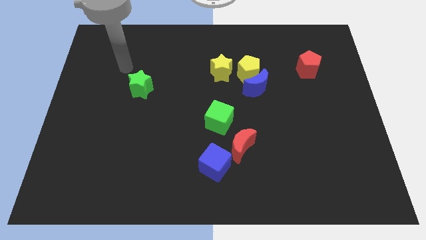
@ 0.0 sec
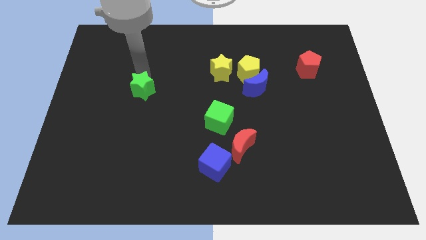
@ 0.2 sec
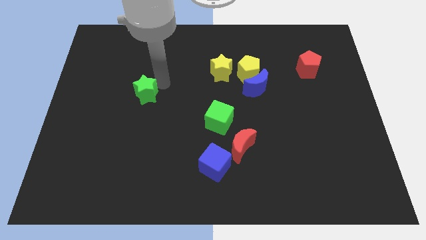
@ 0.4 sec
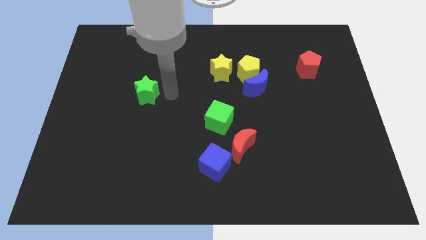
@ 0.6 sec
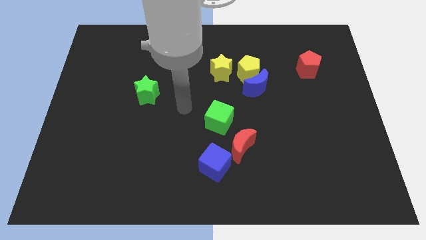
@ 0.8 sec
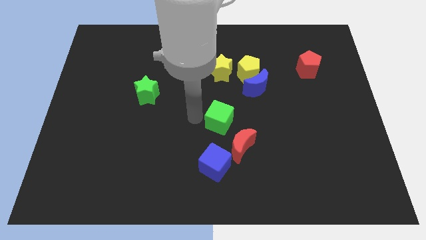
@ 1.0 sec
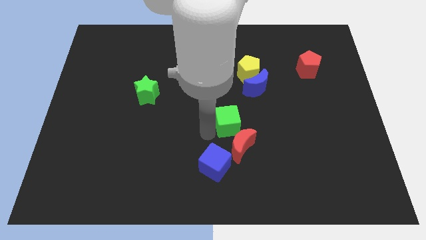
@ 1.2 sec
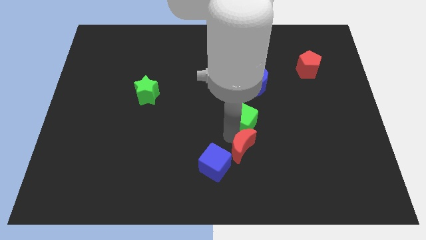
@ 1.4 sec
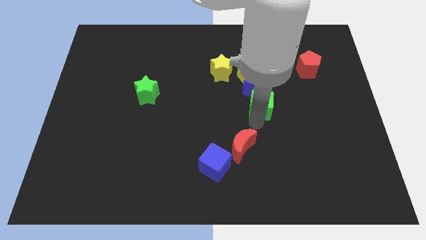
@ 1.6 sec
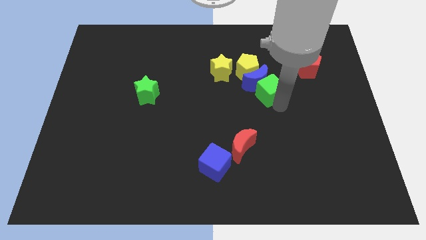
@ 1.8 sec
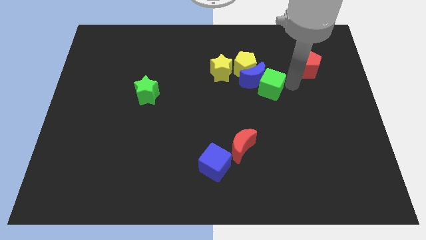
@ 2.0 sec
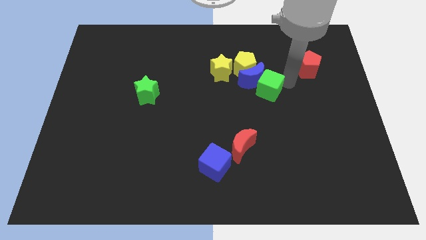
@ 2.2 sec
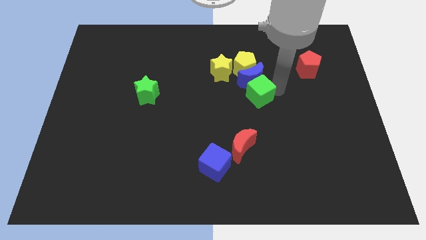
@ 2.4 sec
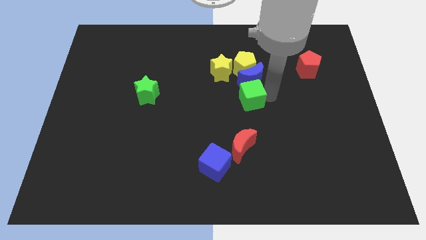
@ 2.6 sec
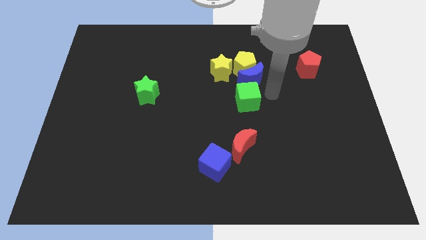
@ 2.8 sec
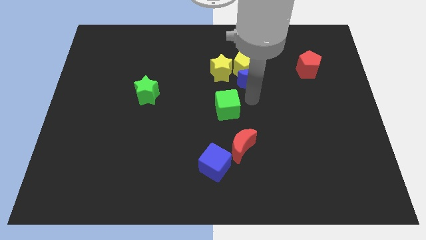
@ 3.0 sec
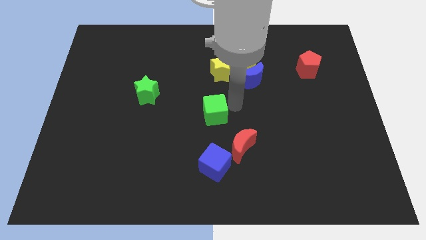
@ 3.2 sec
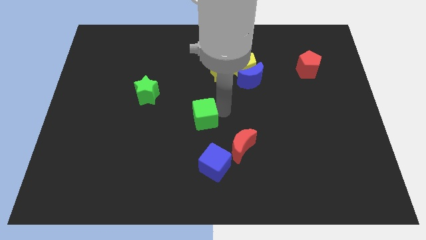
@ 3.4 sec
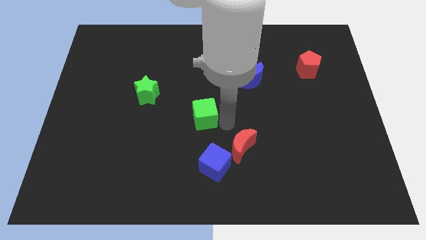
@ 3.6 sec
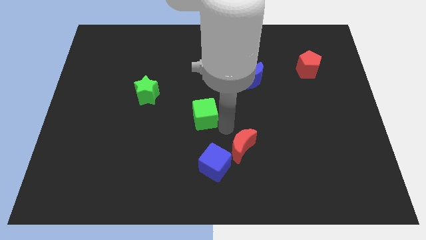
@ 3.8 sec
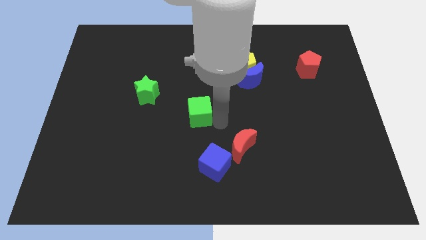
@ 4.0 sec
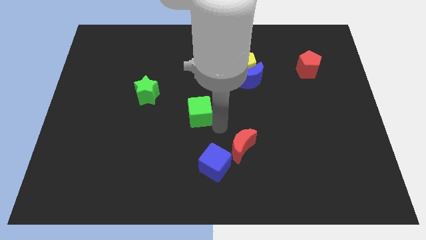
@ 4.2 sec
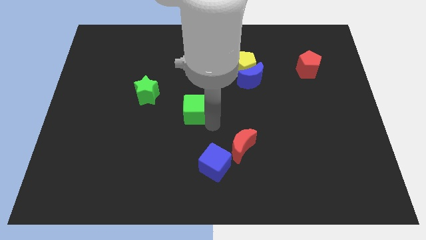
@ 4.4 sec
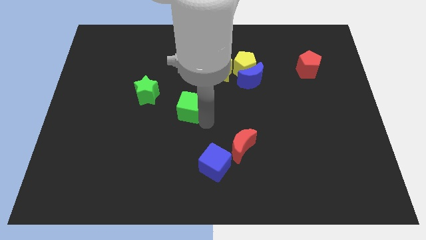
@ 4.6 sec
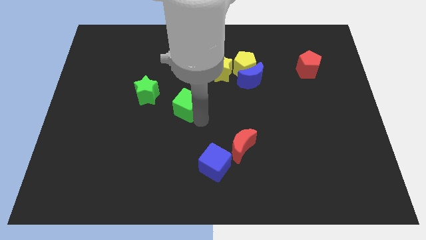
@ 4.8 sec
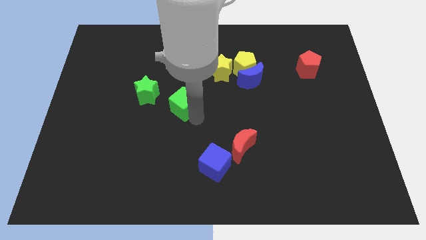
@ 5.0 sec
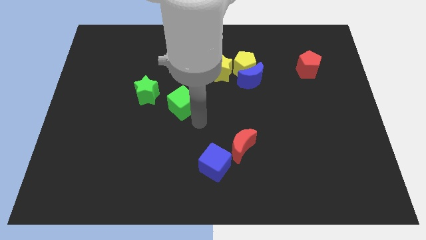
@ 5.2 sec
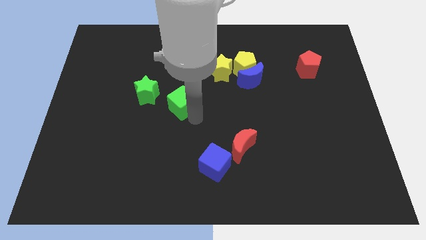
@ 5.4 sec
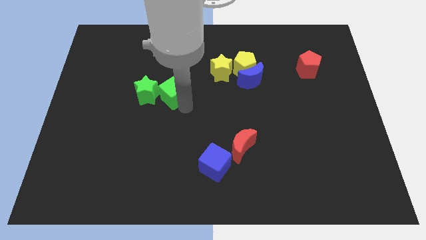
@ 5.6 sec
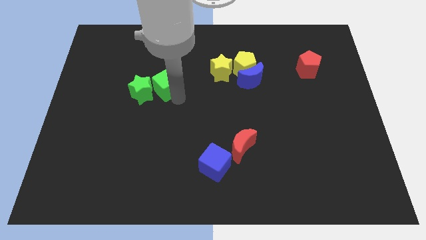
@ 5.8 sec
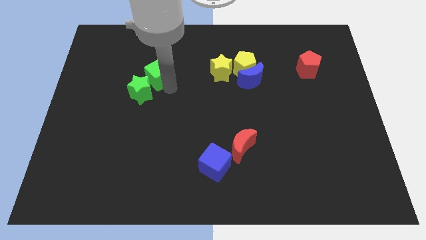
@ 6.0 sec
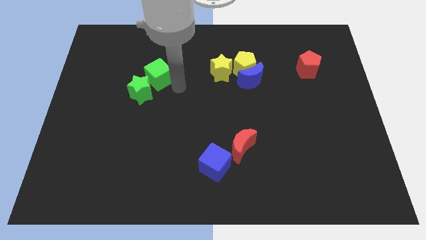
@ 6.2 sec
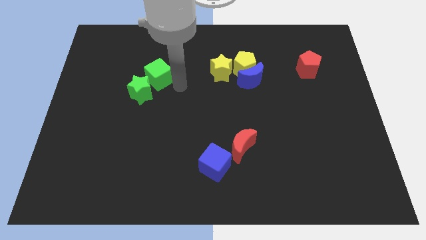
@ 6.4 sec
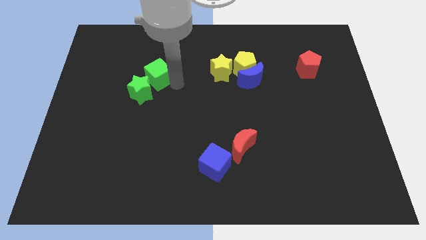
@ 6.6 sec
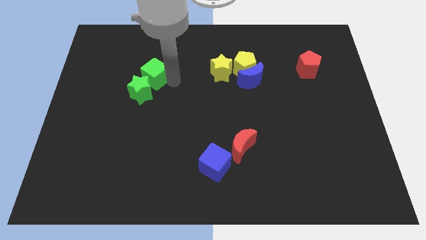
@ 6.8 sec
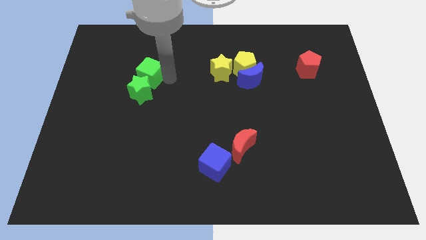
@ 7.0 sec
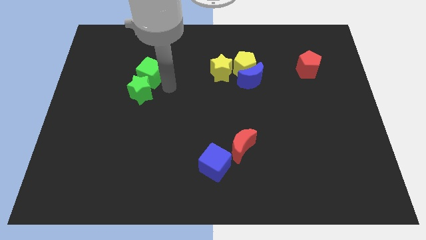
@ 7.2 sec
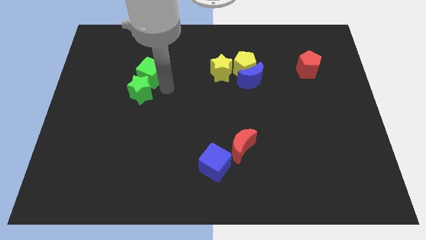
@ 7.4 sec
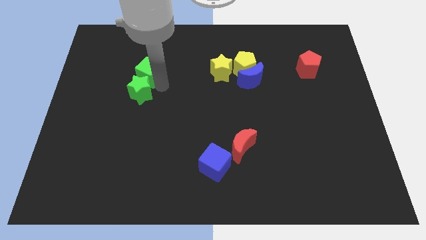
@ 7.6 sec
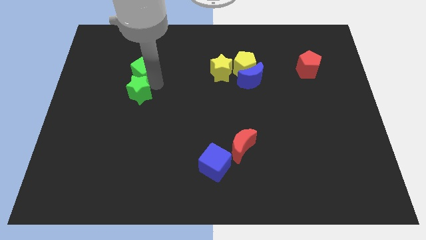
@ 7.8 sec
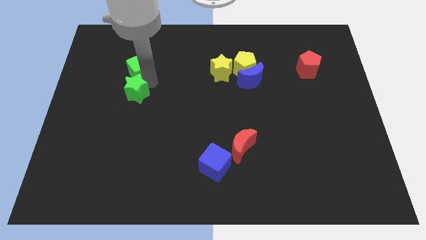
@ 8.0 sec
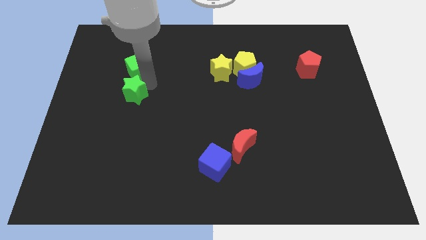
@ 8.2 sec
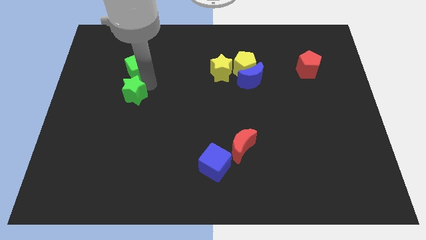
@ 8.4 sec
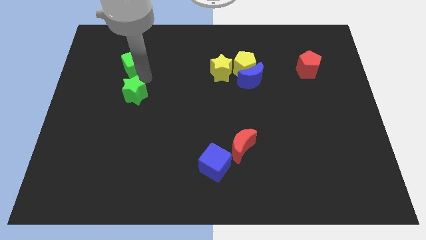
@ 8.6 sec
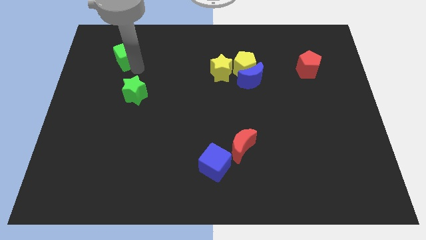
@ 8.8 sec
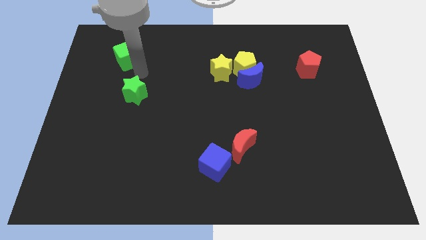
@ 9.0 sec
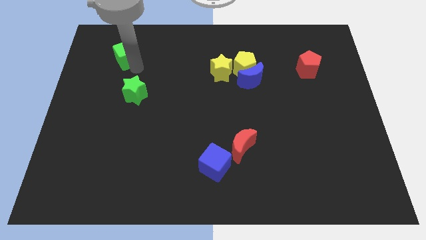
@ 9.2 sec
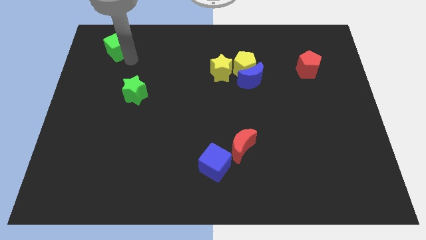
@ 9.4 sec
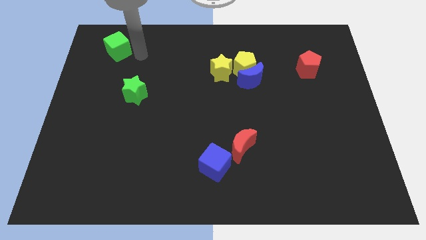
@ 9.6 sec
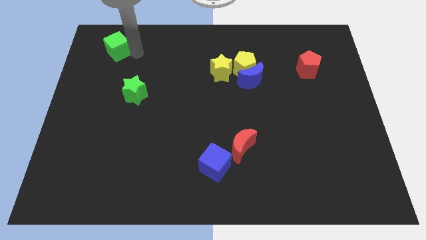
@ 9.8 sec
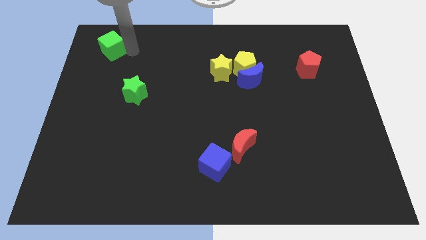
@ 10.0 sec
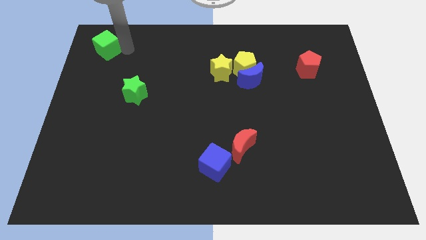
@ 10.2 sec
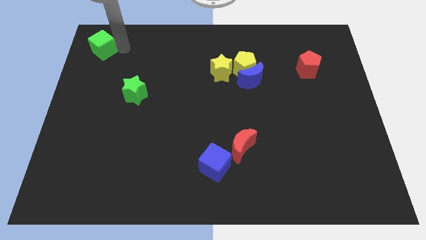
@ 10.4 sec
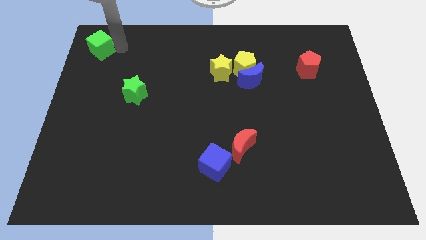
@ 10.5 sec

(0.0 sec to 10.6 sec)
push the green cube to the top left of the board
